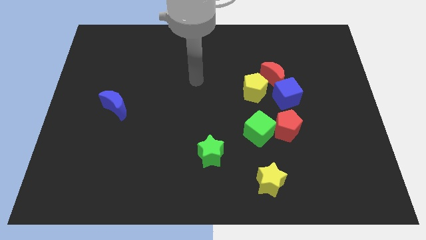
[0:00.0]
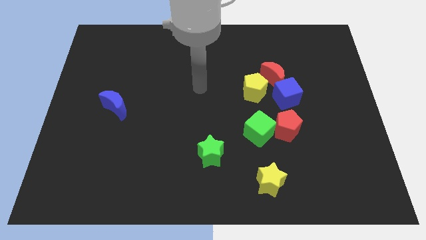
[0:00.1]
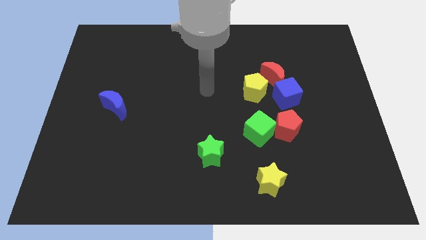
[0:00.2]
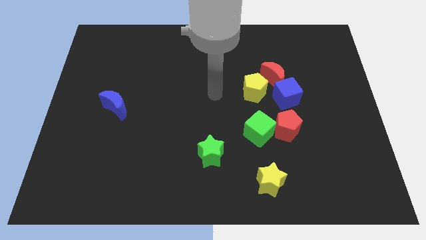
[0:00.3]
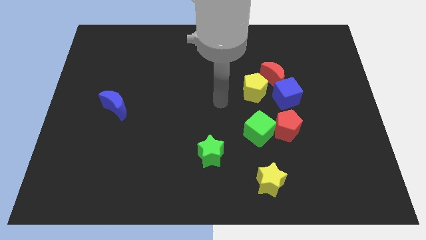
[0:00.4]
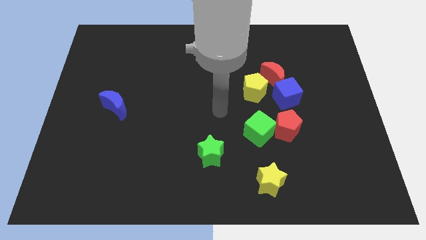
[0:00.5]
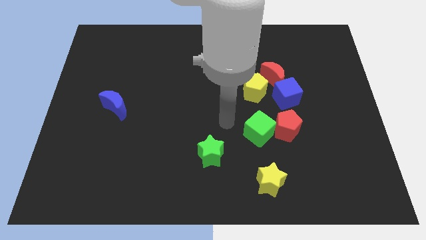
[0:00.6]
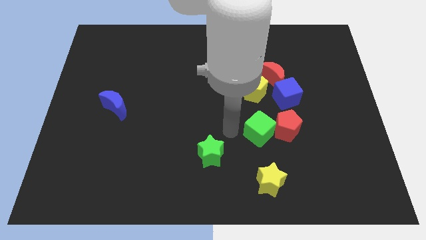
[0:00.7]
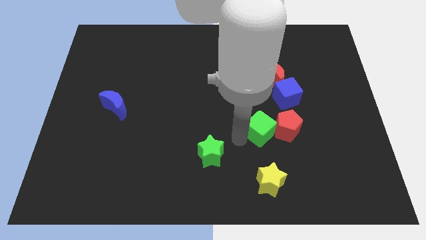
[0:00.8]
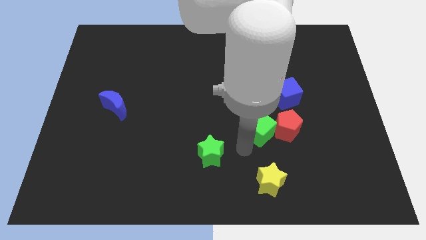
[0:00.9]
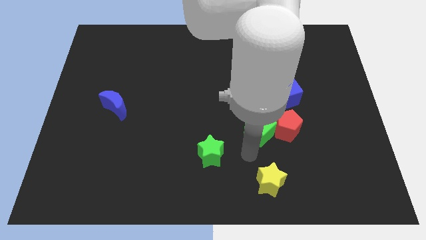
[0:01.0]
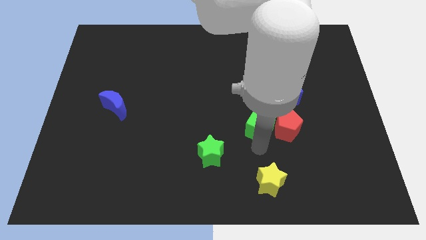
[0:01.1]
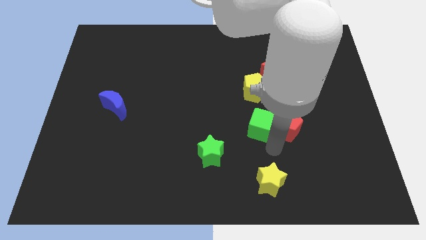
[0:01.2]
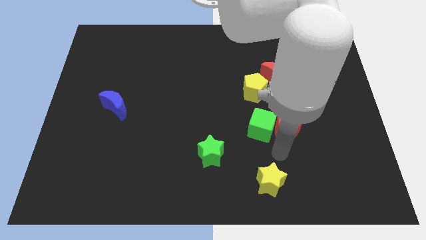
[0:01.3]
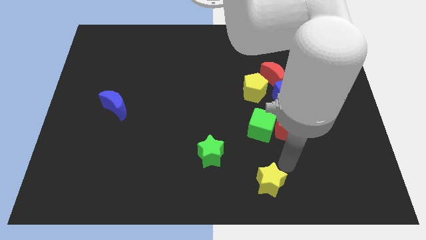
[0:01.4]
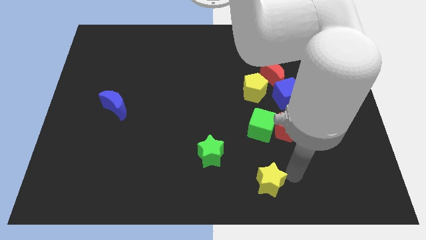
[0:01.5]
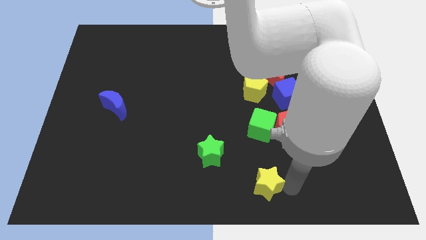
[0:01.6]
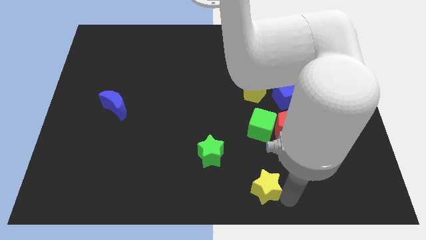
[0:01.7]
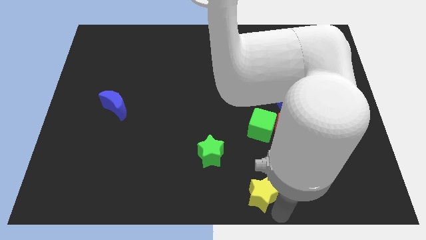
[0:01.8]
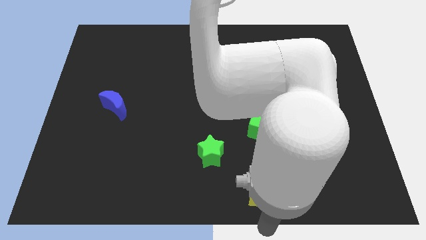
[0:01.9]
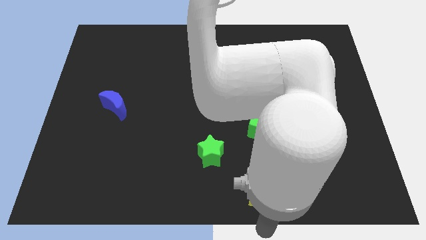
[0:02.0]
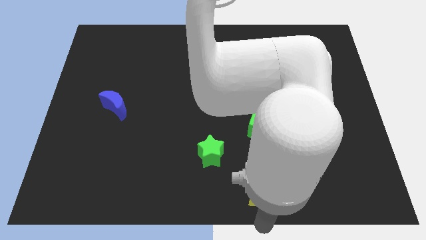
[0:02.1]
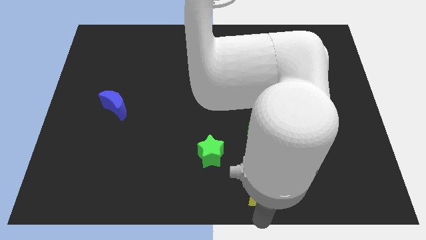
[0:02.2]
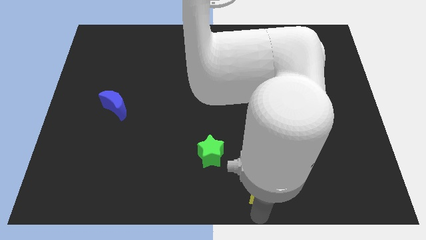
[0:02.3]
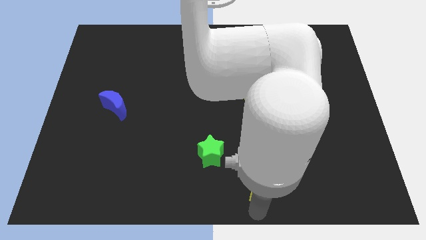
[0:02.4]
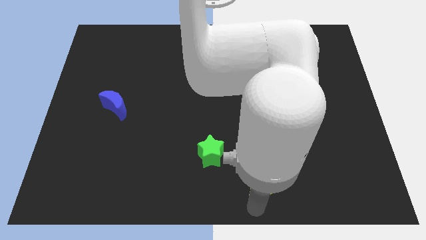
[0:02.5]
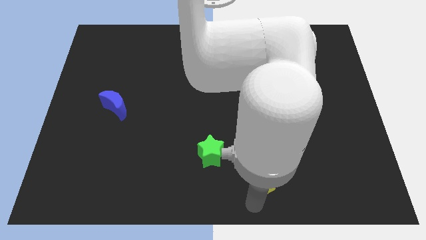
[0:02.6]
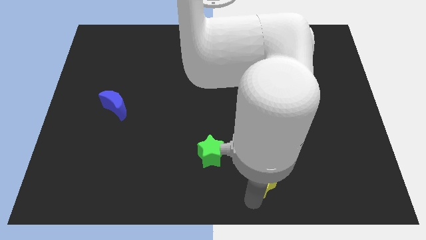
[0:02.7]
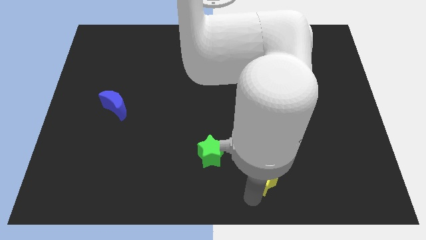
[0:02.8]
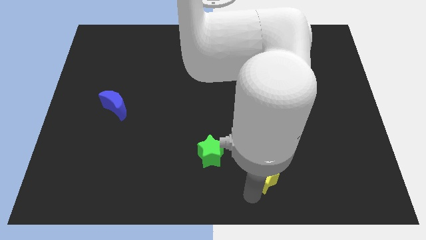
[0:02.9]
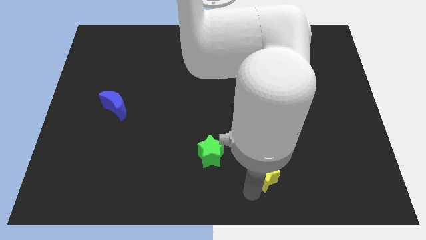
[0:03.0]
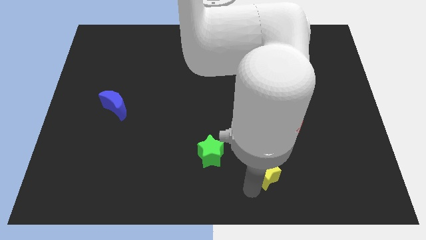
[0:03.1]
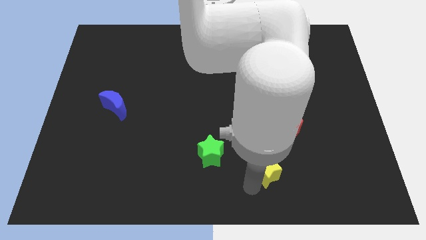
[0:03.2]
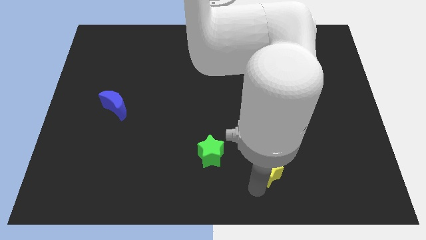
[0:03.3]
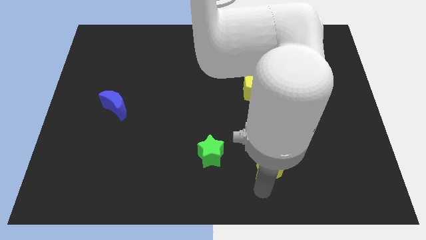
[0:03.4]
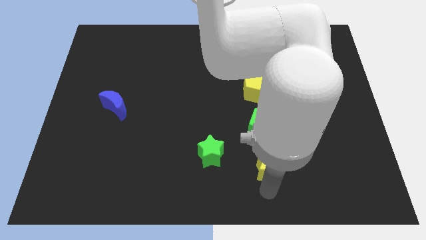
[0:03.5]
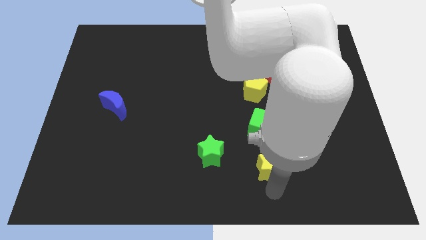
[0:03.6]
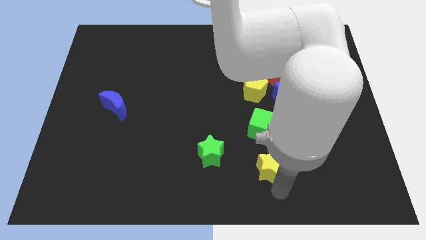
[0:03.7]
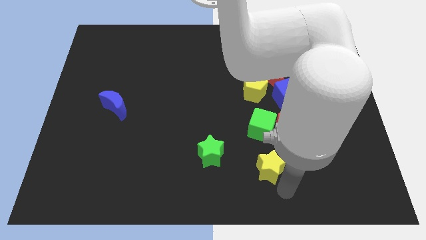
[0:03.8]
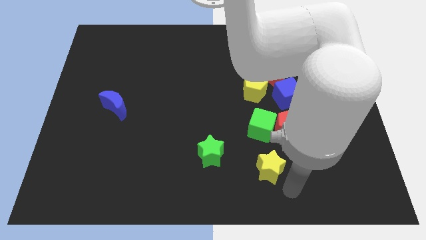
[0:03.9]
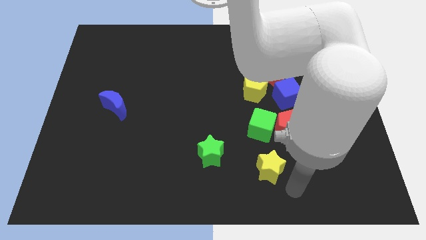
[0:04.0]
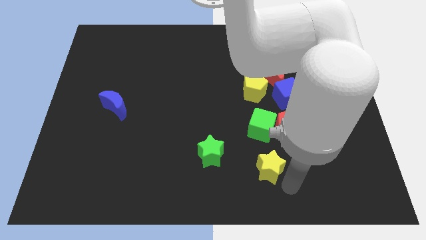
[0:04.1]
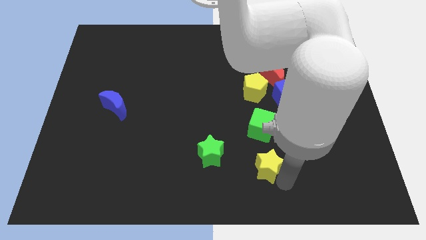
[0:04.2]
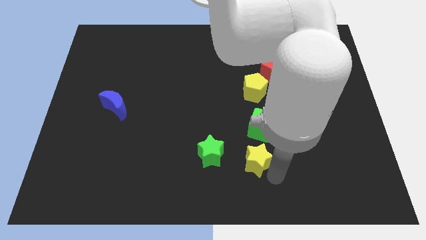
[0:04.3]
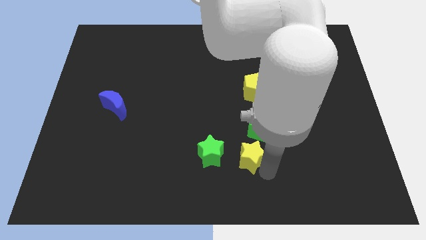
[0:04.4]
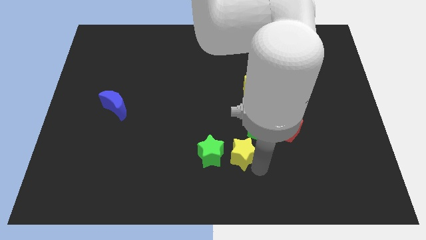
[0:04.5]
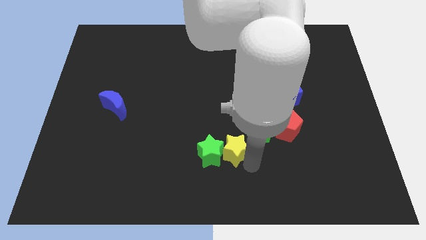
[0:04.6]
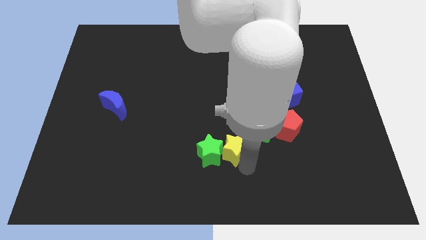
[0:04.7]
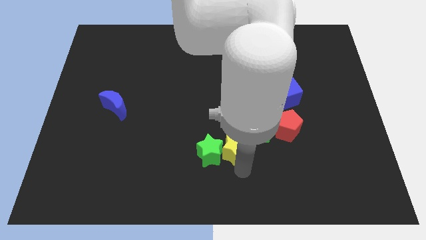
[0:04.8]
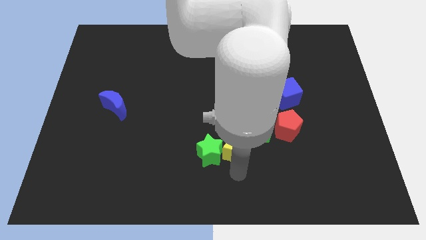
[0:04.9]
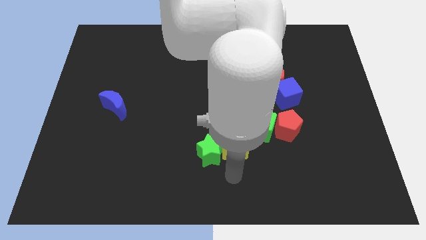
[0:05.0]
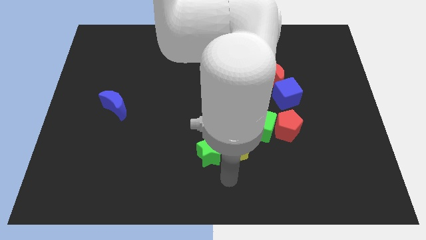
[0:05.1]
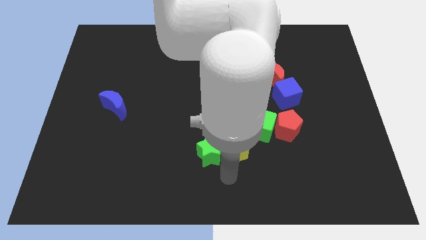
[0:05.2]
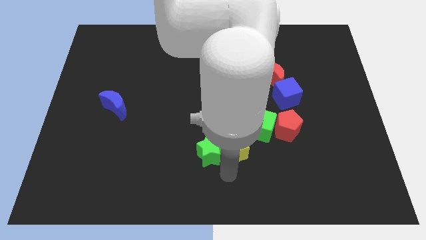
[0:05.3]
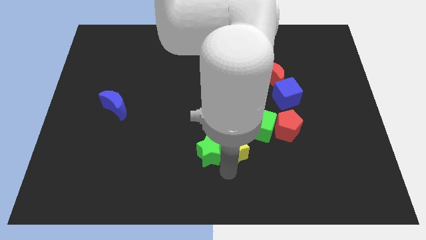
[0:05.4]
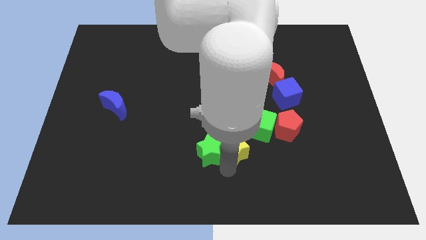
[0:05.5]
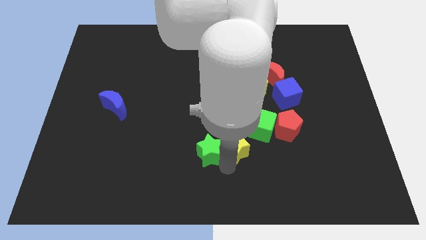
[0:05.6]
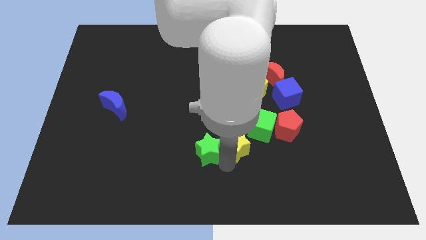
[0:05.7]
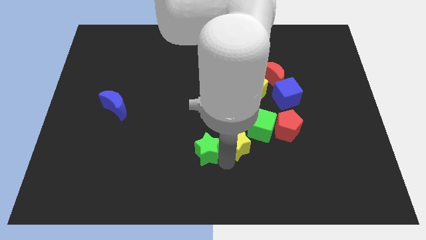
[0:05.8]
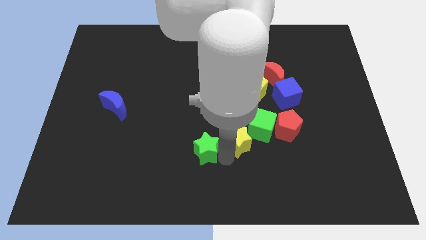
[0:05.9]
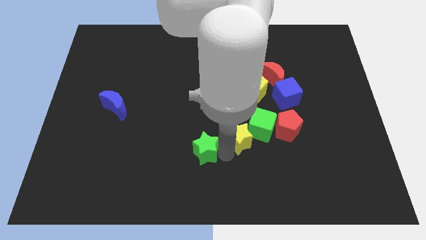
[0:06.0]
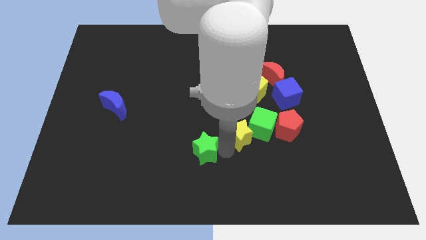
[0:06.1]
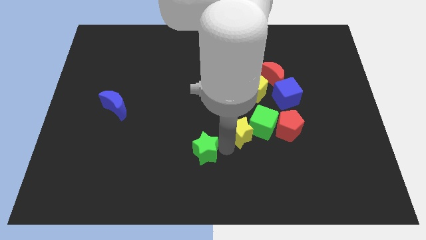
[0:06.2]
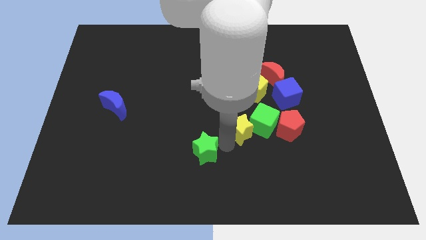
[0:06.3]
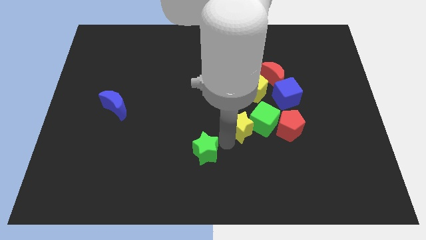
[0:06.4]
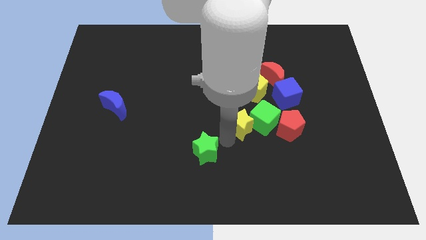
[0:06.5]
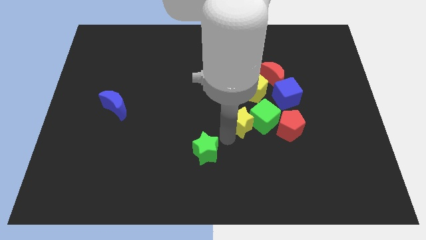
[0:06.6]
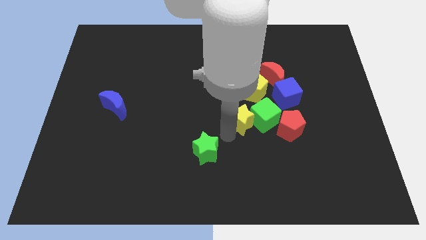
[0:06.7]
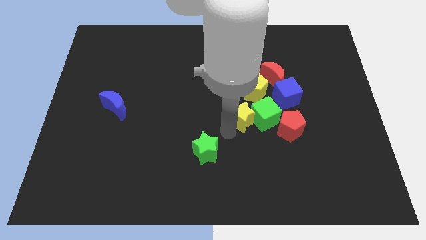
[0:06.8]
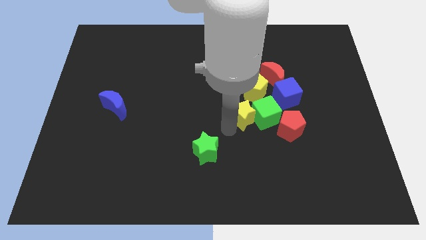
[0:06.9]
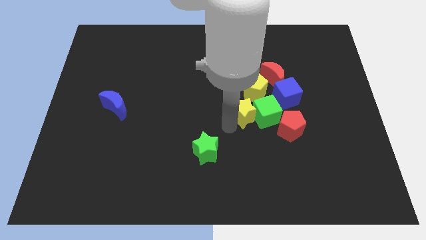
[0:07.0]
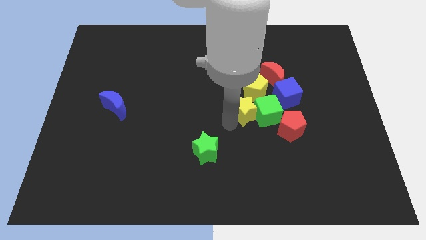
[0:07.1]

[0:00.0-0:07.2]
put the yellow star to the bottom left side of the blue cube
